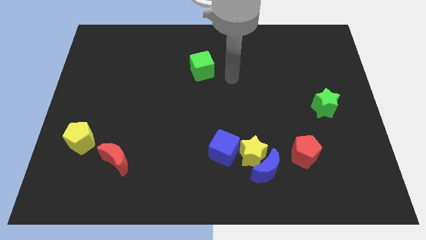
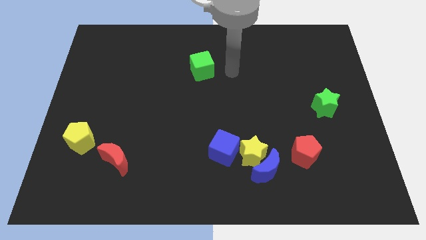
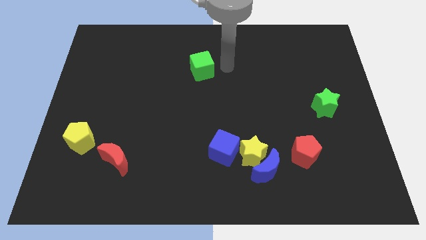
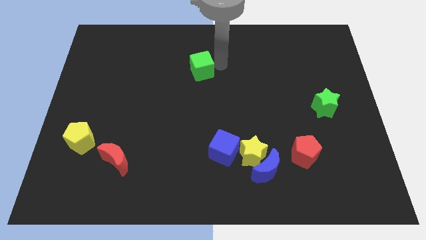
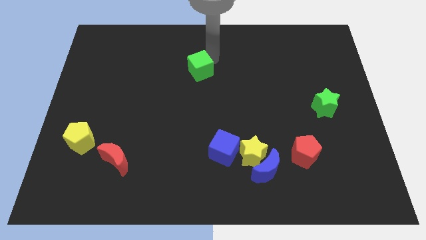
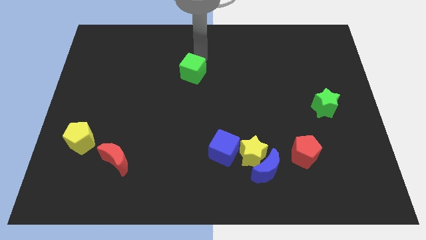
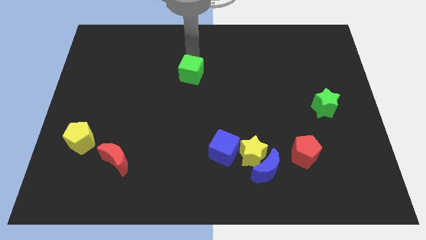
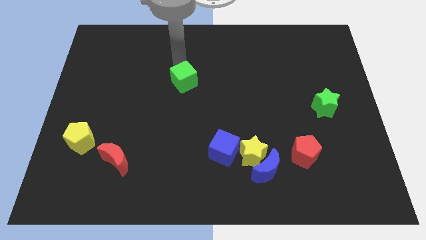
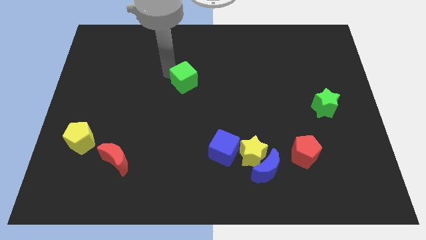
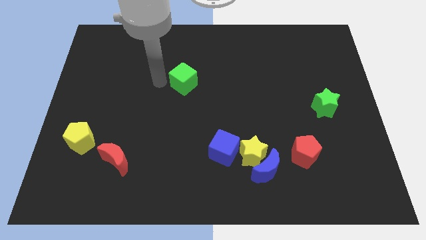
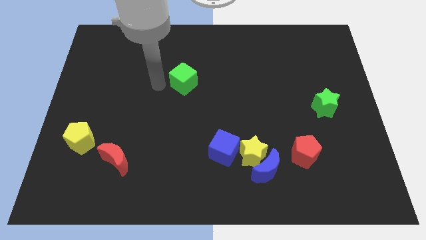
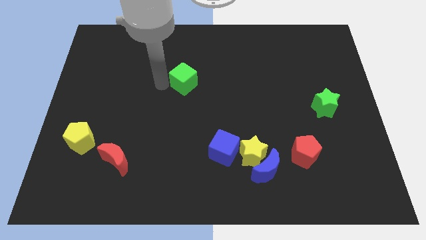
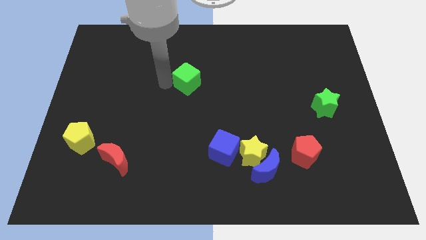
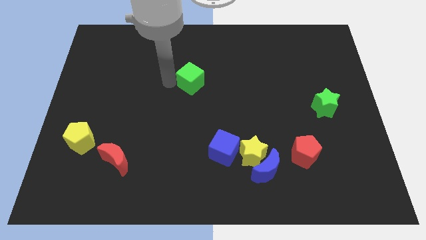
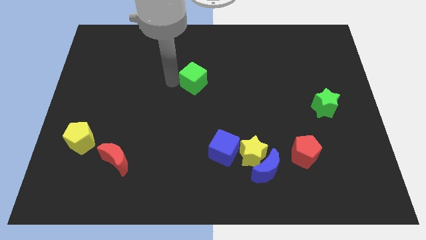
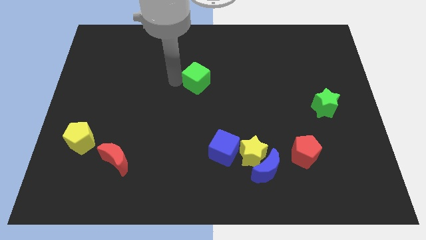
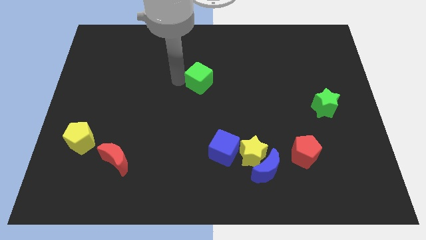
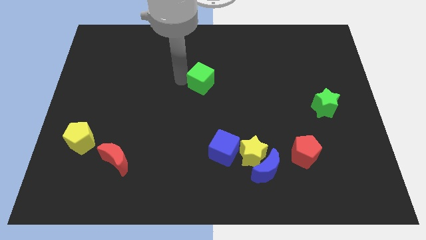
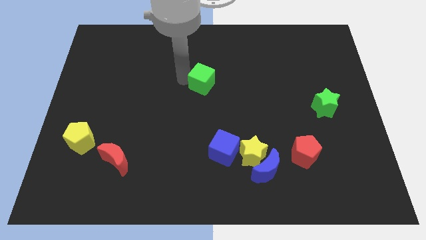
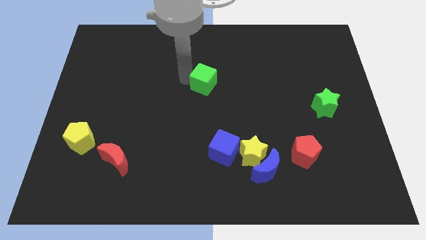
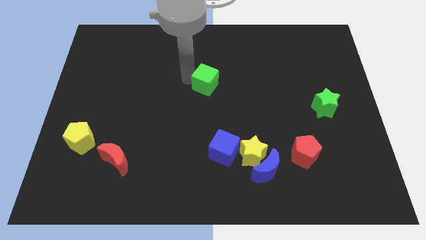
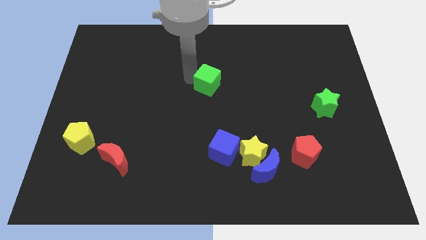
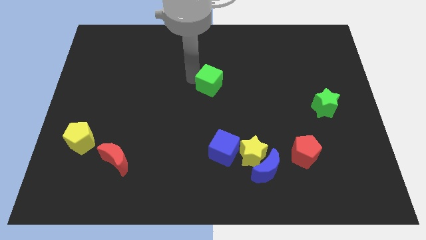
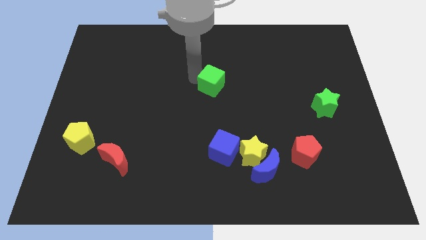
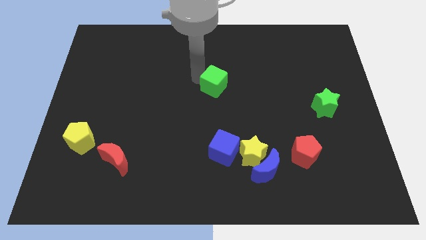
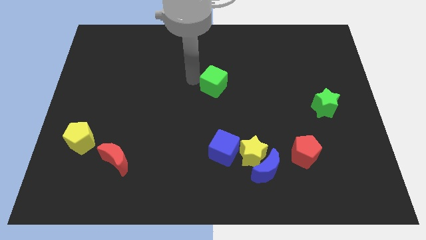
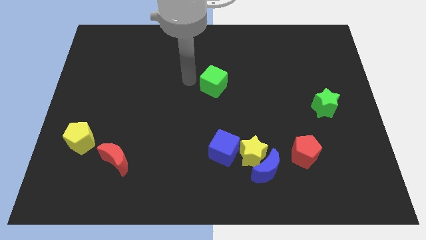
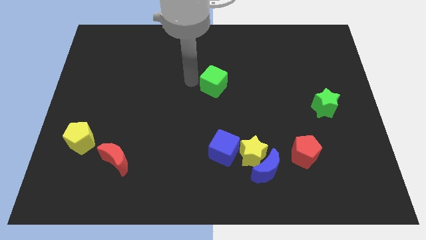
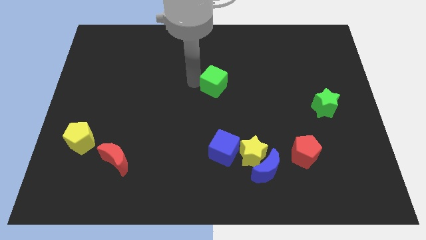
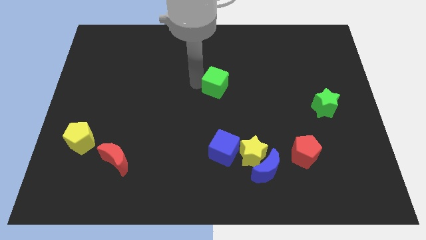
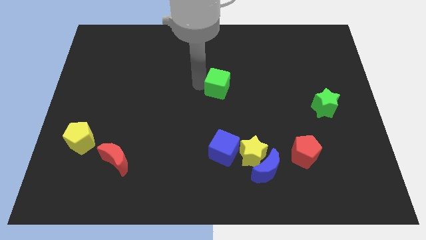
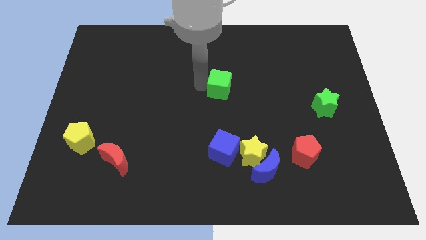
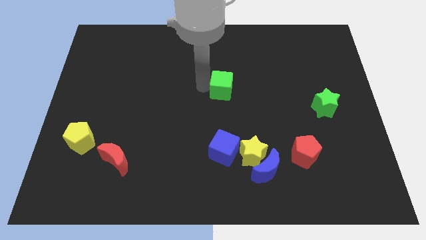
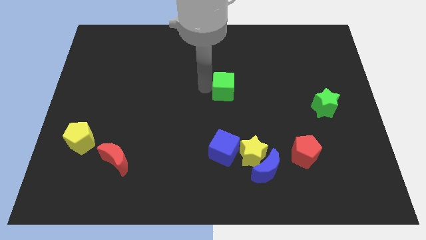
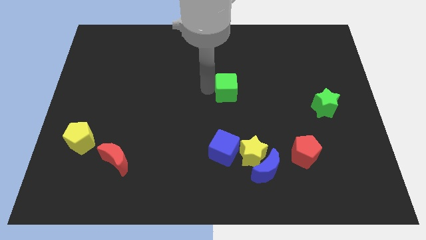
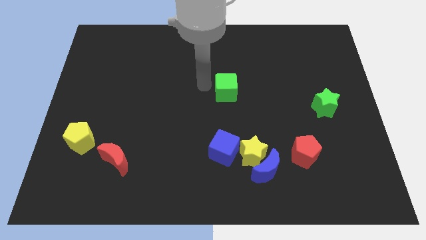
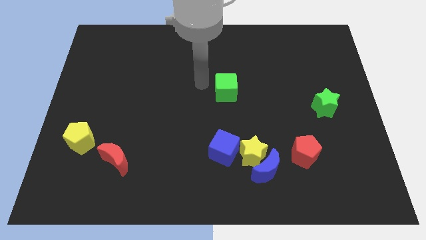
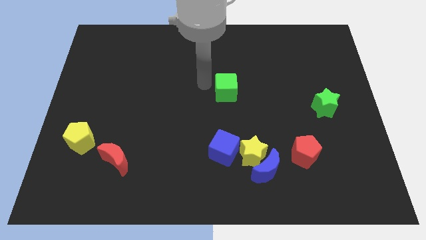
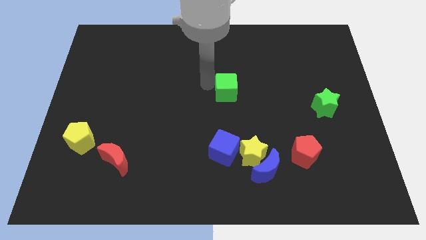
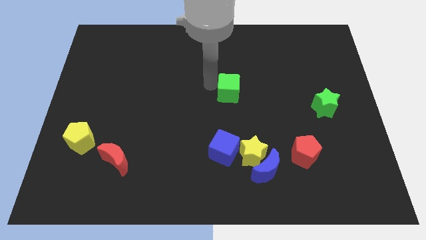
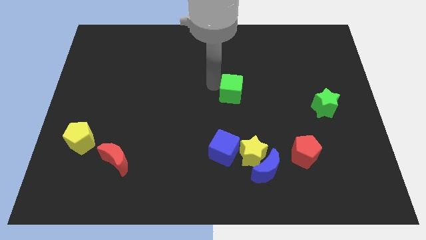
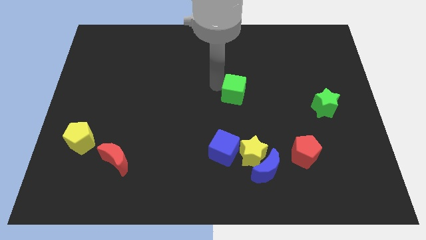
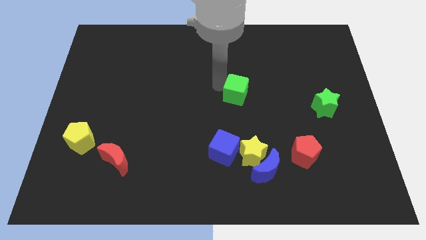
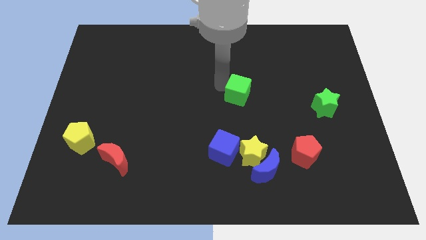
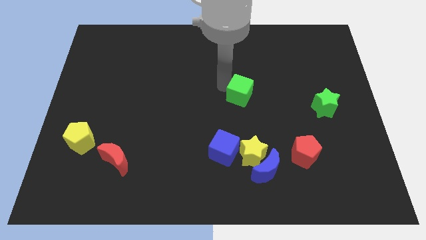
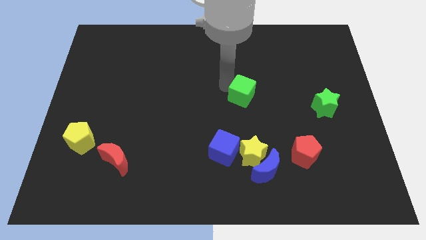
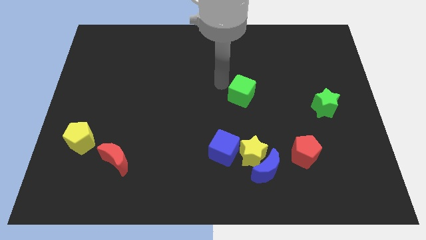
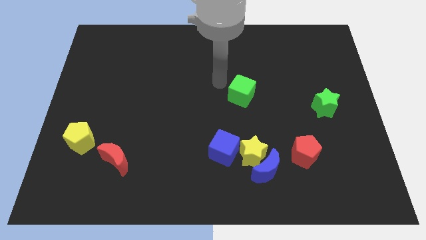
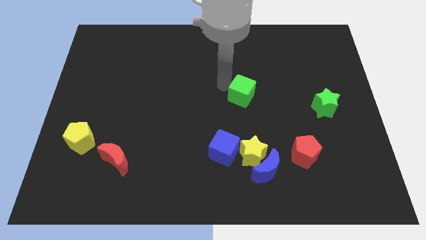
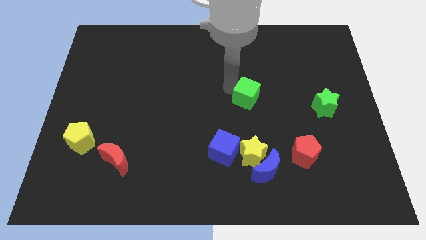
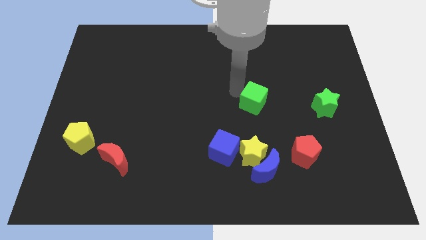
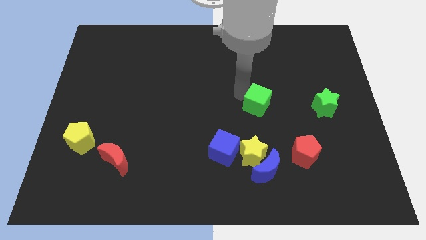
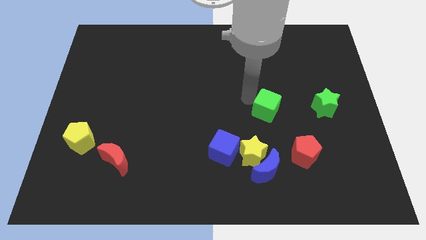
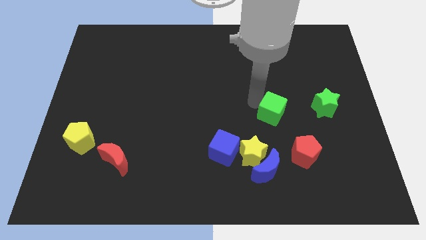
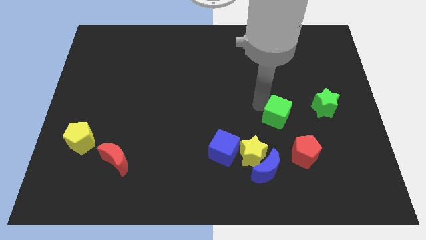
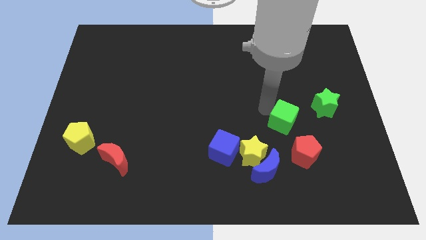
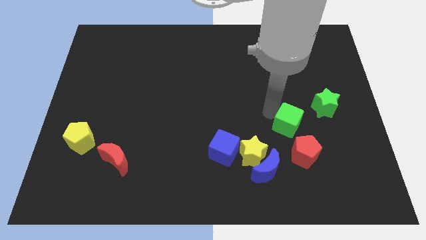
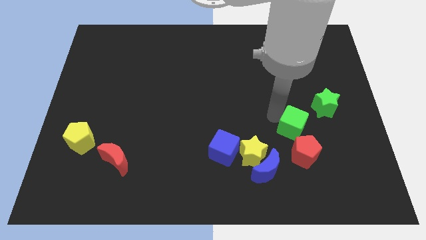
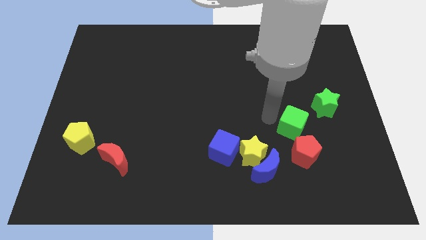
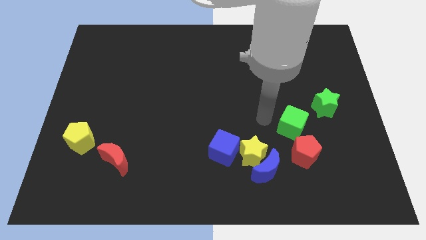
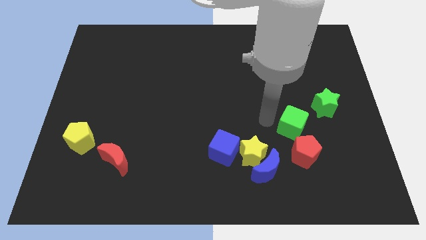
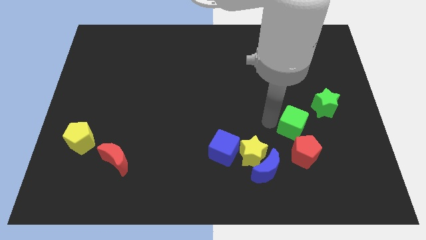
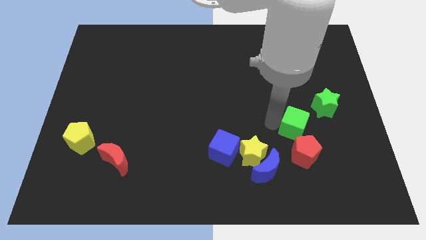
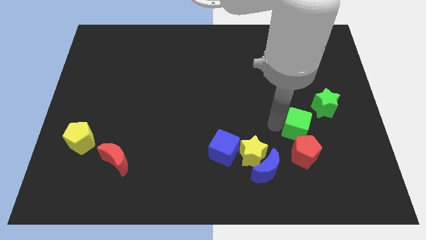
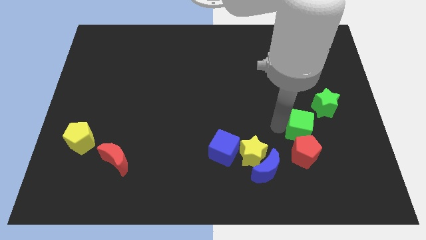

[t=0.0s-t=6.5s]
slide the green cube diagonally up and to the right of the red pentagon

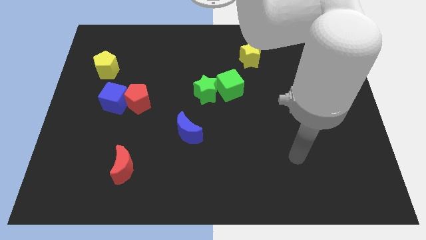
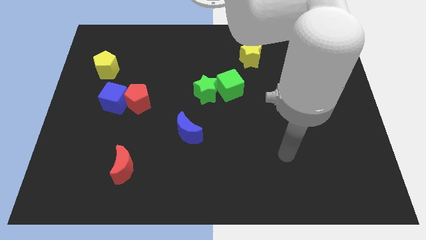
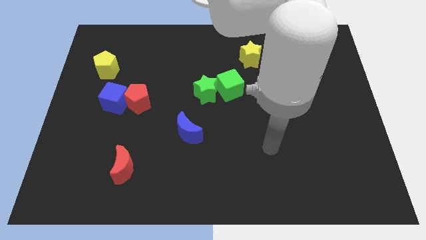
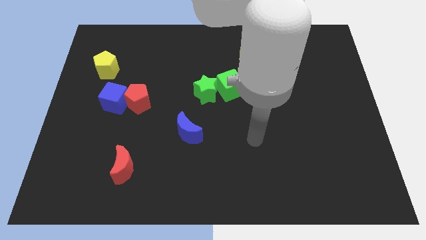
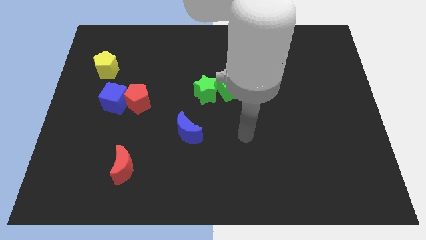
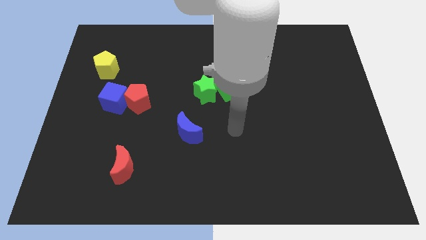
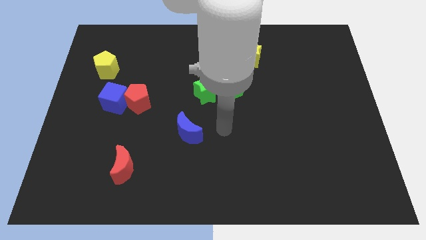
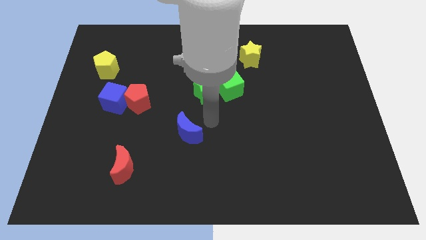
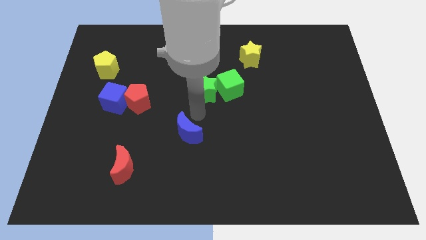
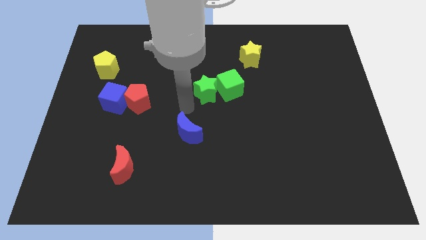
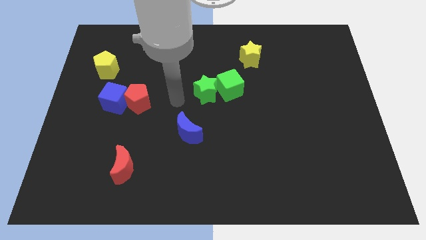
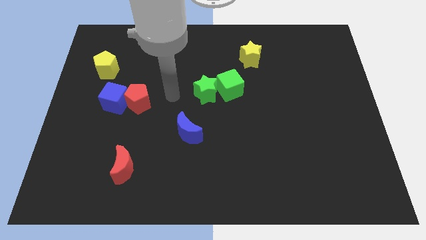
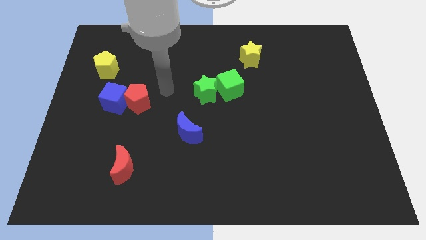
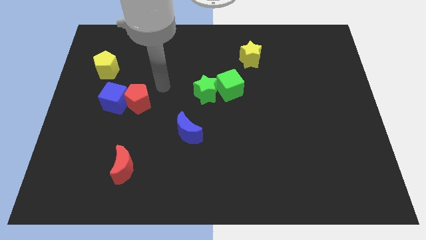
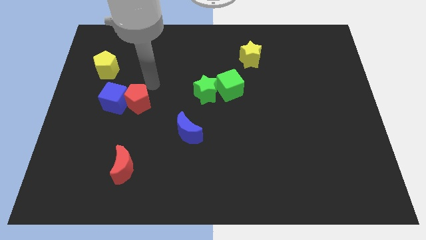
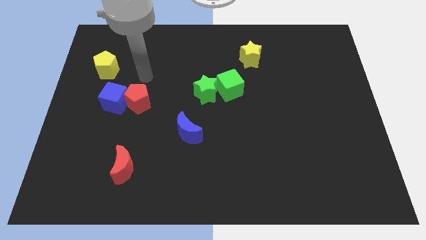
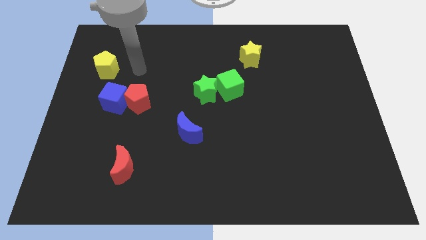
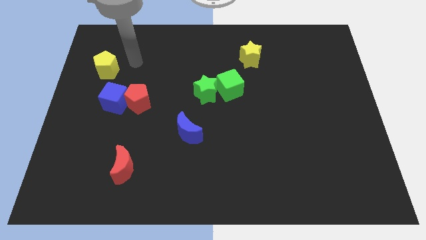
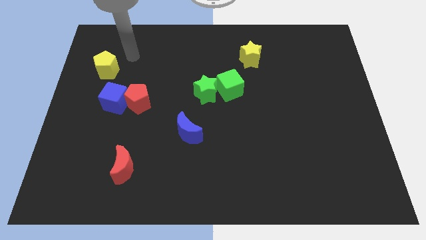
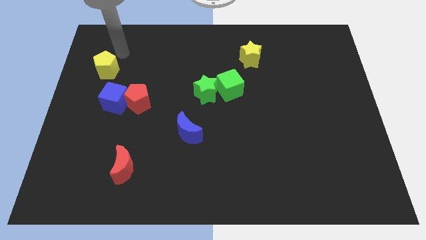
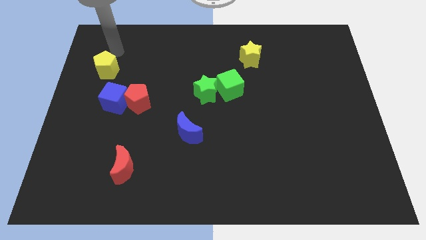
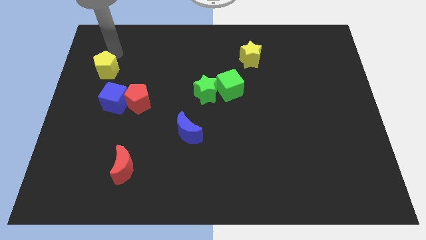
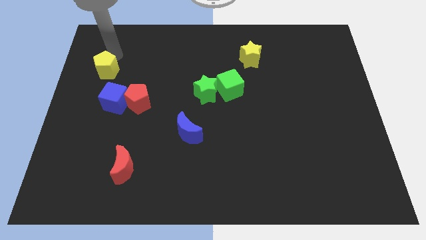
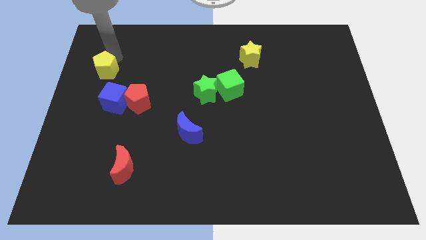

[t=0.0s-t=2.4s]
move the yellow pentagon diagonally up and to the left of the blue cube
